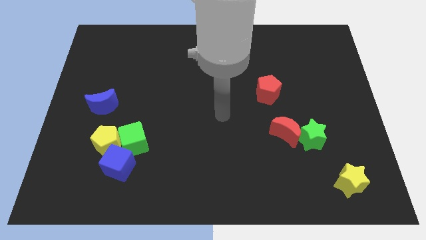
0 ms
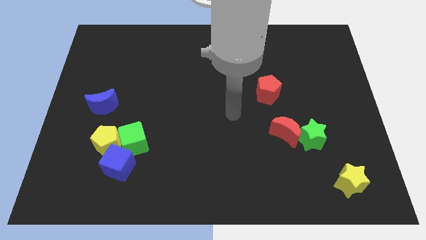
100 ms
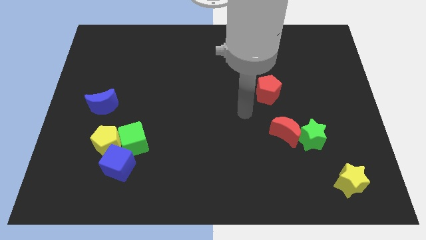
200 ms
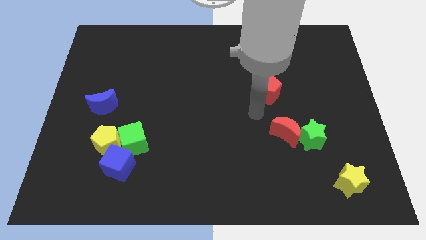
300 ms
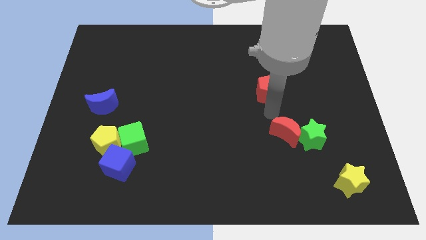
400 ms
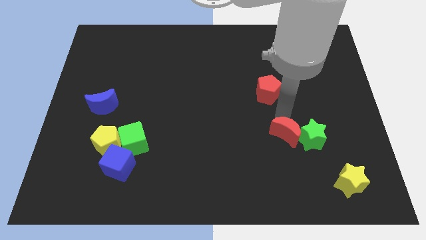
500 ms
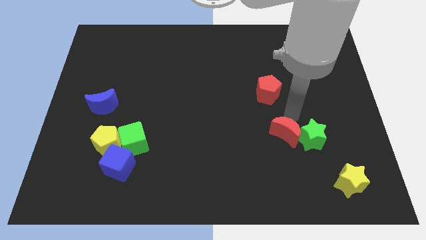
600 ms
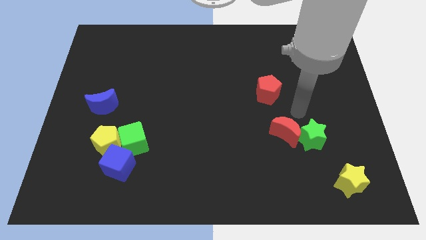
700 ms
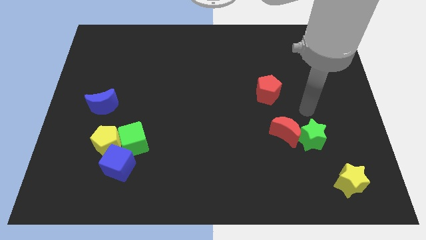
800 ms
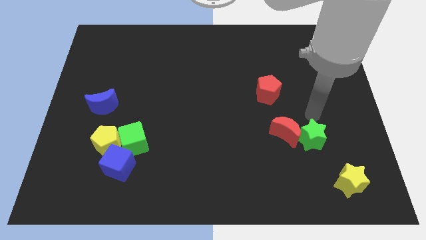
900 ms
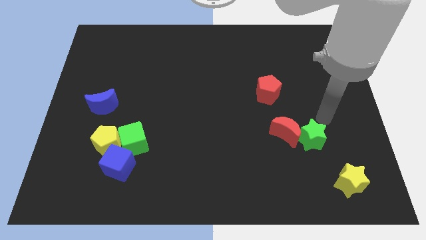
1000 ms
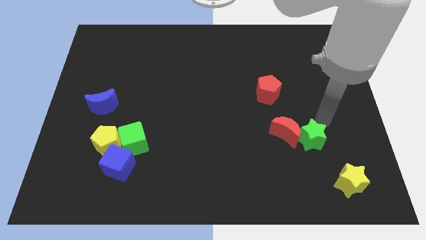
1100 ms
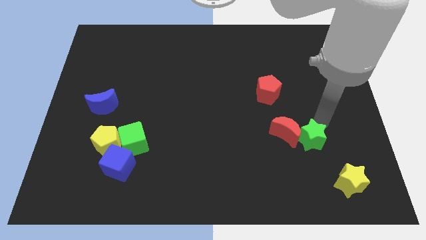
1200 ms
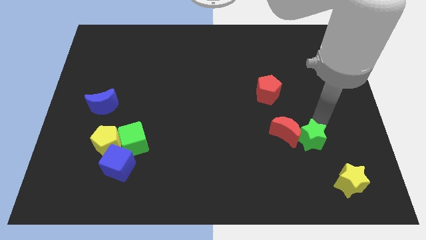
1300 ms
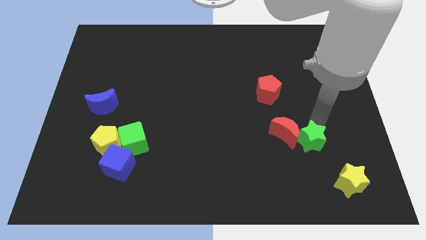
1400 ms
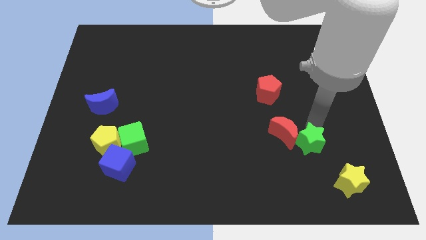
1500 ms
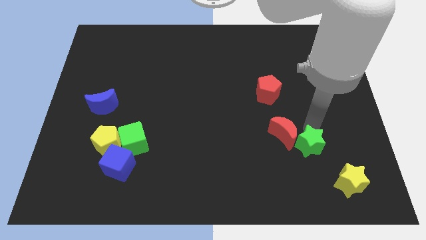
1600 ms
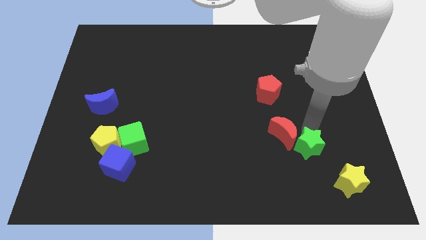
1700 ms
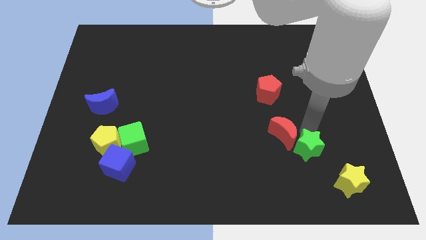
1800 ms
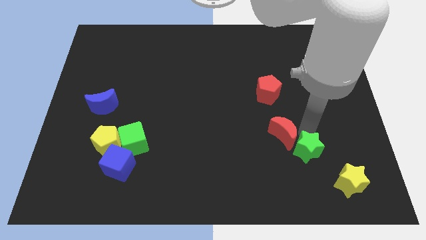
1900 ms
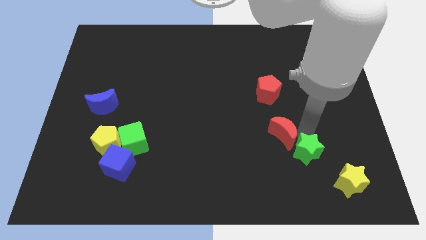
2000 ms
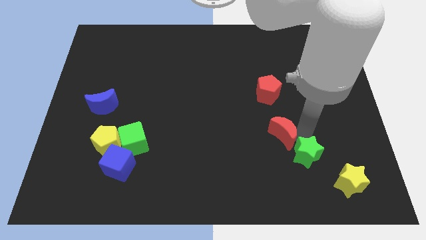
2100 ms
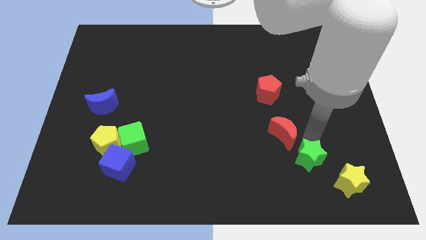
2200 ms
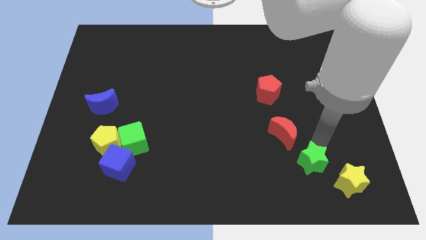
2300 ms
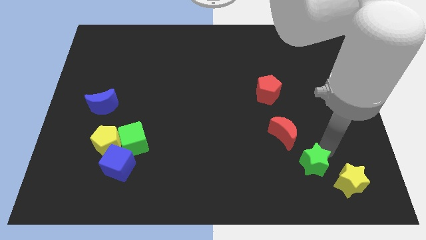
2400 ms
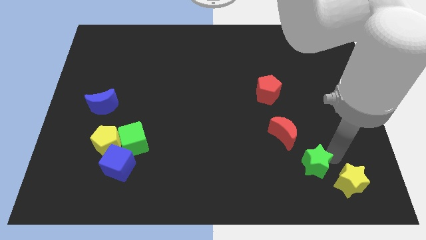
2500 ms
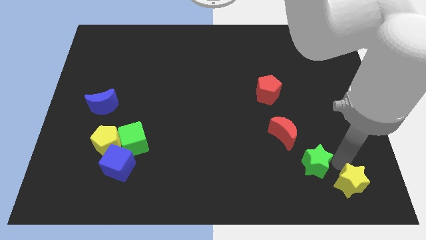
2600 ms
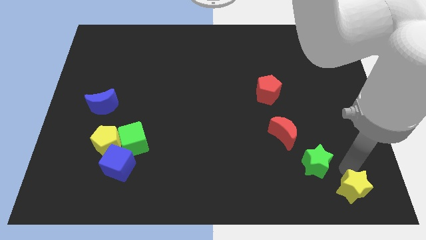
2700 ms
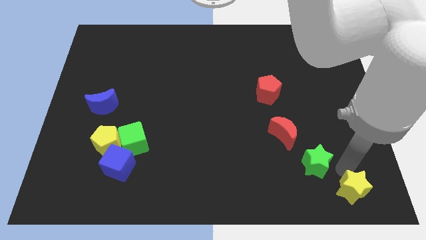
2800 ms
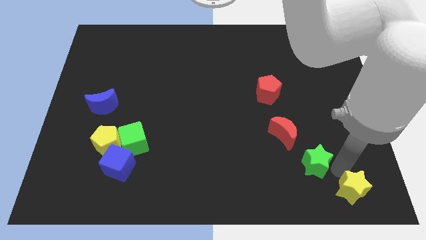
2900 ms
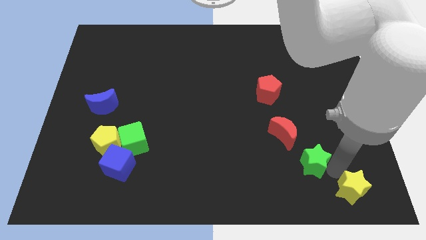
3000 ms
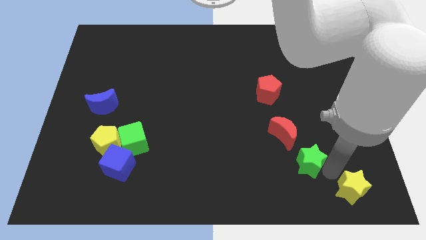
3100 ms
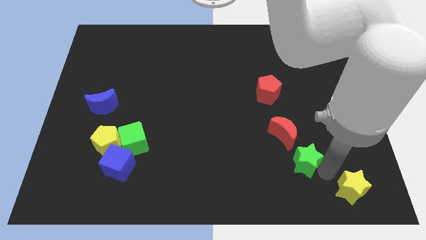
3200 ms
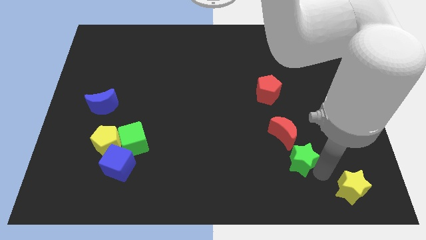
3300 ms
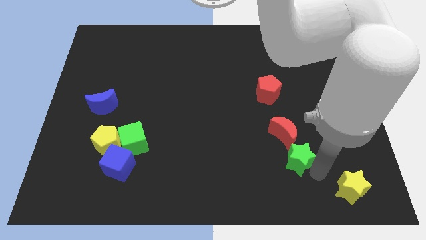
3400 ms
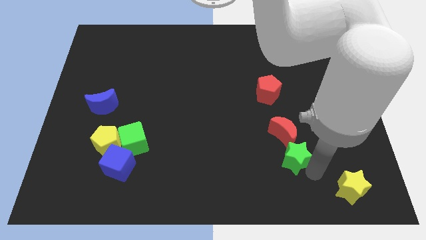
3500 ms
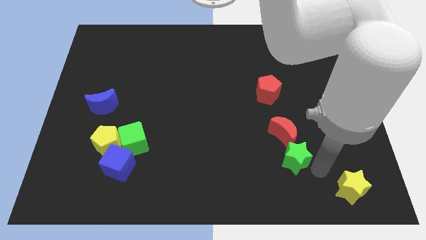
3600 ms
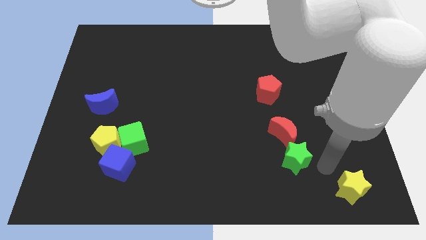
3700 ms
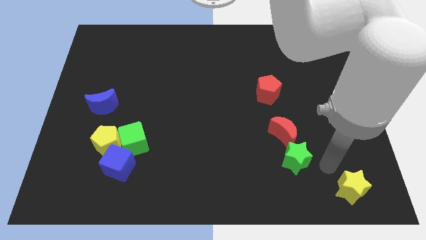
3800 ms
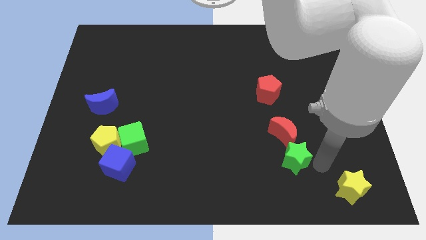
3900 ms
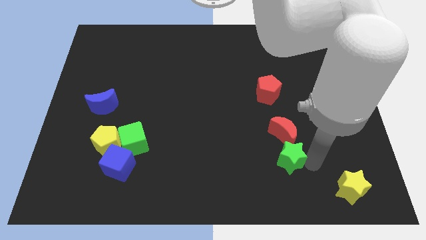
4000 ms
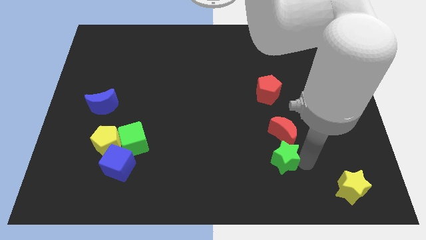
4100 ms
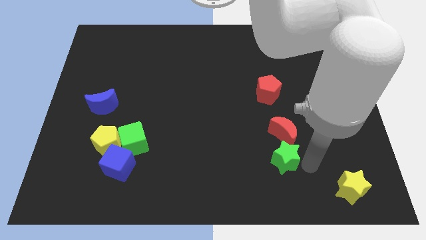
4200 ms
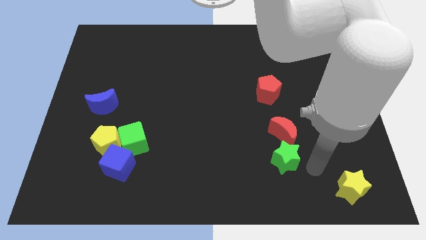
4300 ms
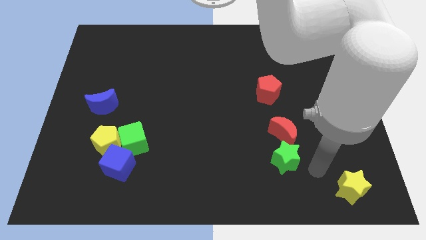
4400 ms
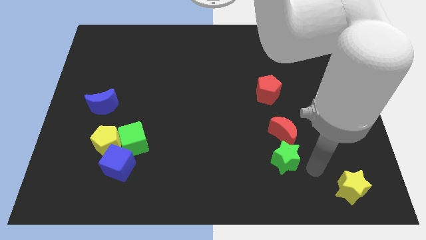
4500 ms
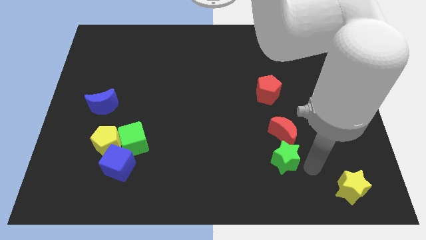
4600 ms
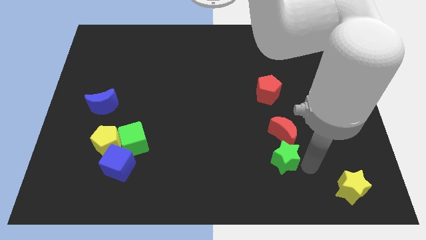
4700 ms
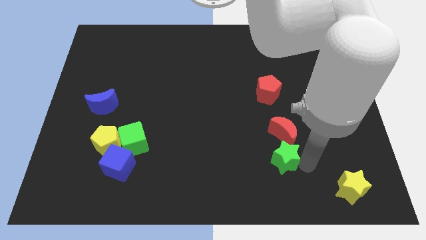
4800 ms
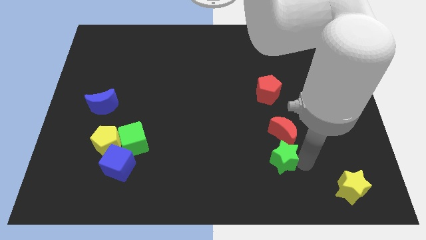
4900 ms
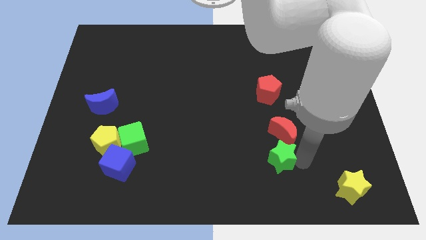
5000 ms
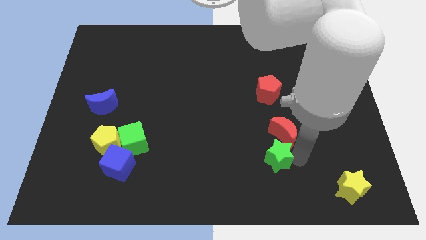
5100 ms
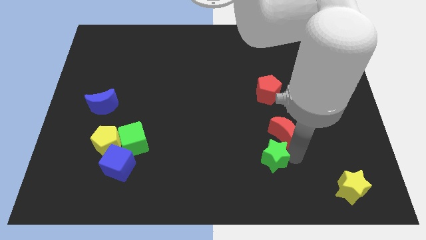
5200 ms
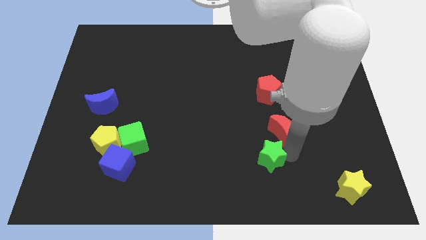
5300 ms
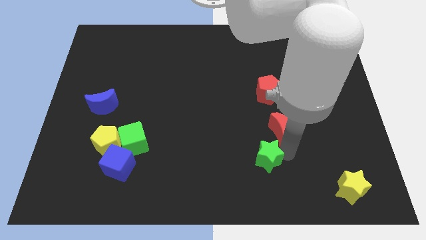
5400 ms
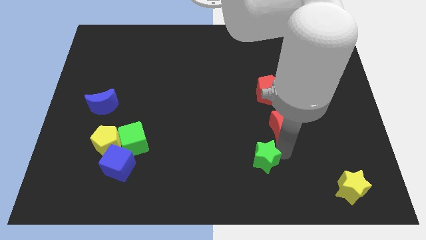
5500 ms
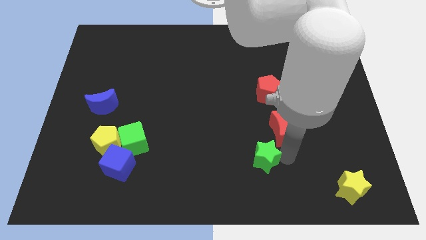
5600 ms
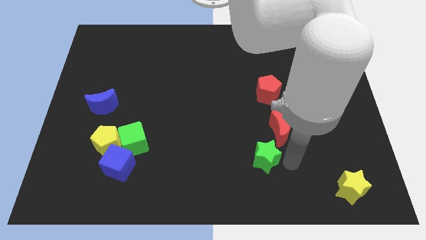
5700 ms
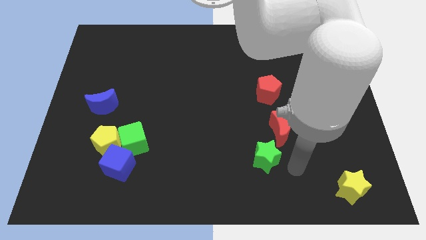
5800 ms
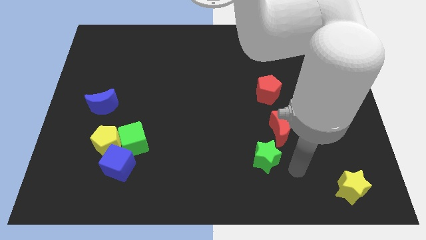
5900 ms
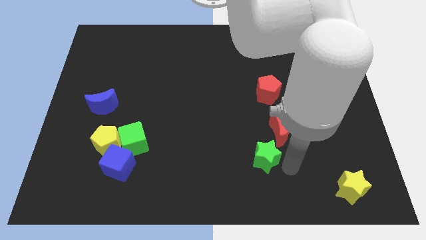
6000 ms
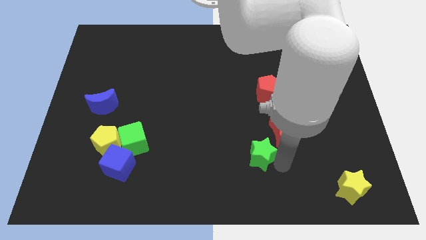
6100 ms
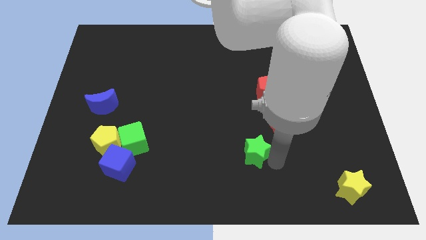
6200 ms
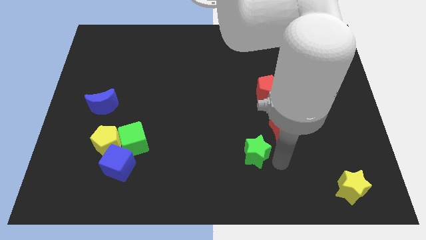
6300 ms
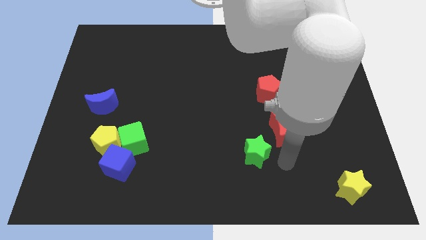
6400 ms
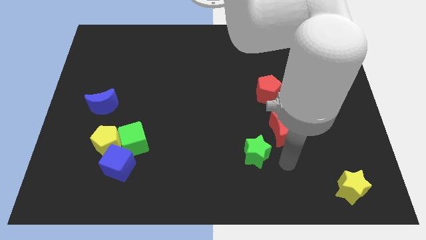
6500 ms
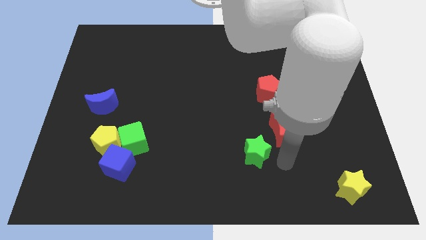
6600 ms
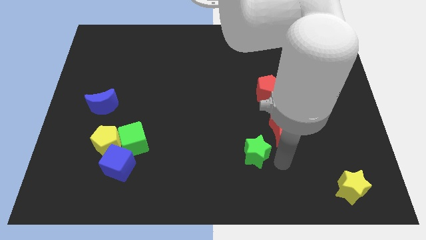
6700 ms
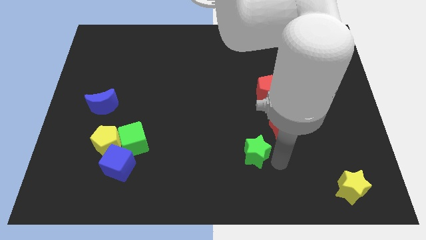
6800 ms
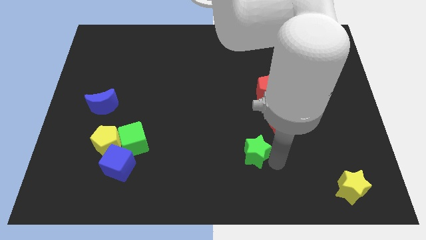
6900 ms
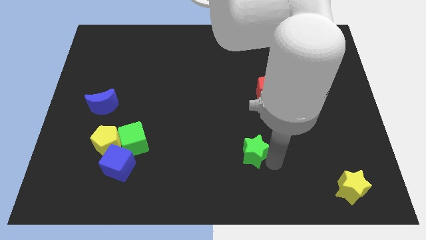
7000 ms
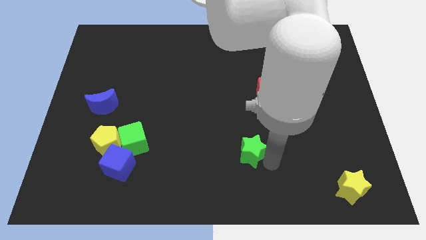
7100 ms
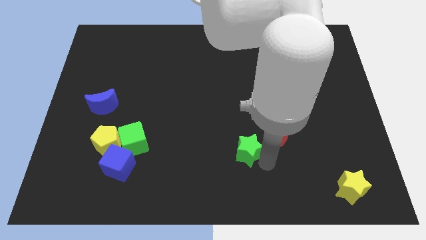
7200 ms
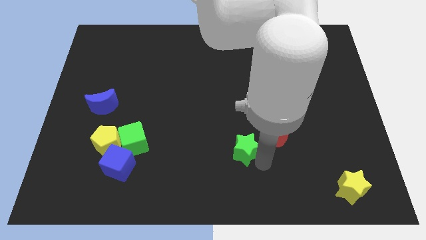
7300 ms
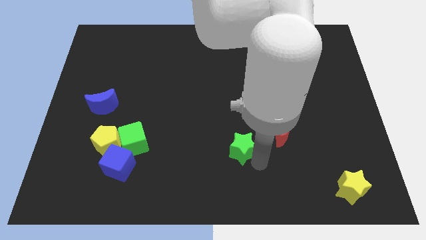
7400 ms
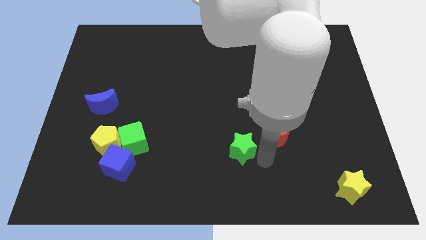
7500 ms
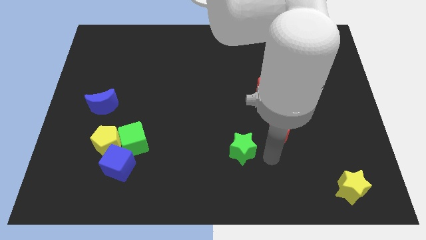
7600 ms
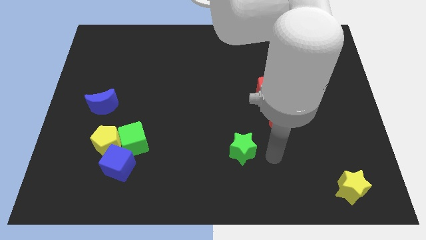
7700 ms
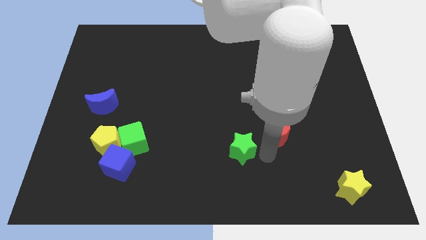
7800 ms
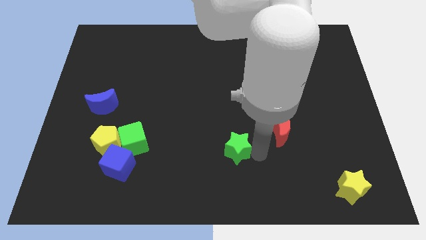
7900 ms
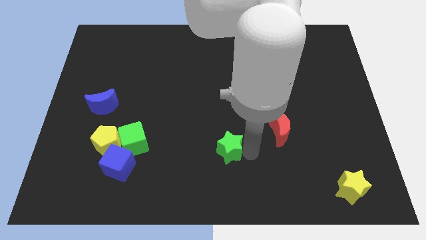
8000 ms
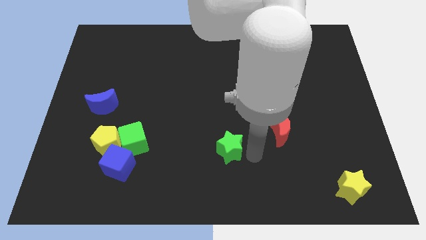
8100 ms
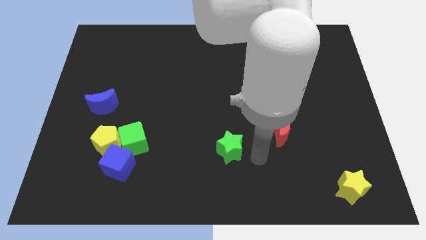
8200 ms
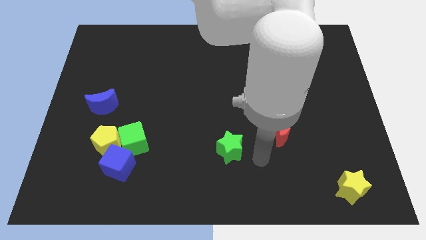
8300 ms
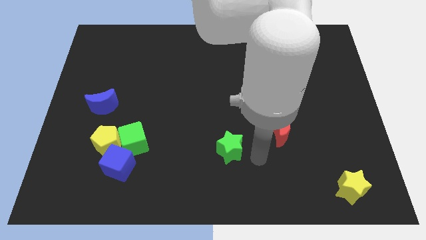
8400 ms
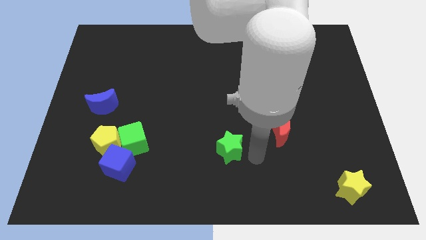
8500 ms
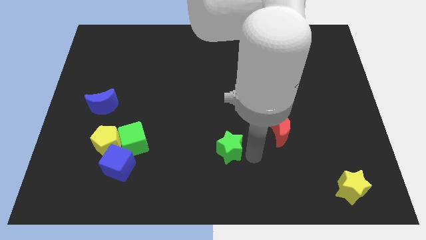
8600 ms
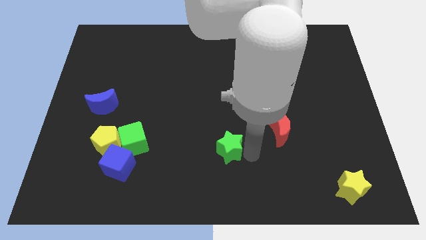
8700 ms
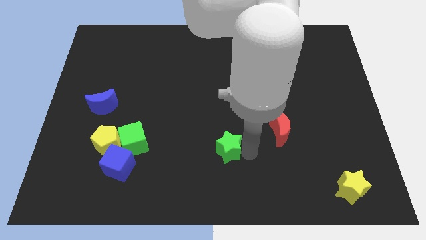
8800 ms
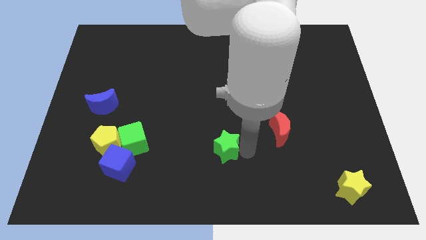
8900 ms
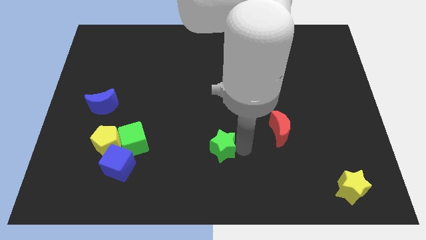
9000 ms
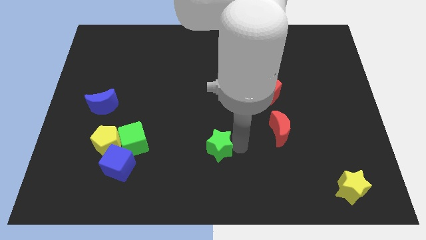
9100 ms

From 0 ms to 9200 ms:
move the green star left
